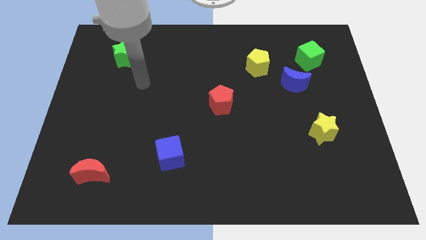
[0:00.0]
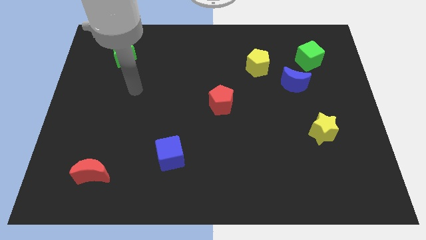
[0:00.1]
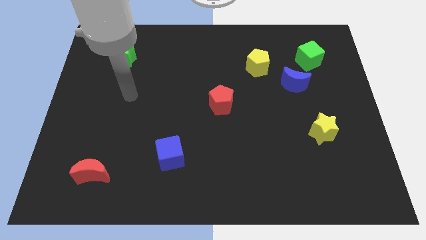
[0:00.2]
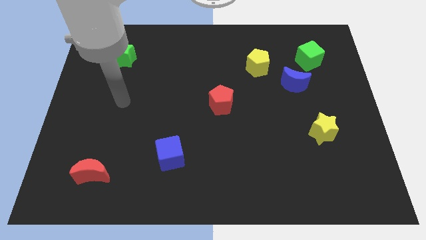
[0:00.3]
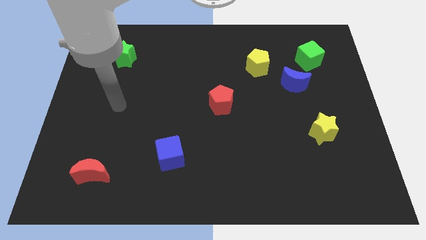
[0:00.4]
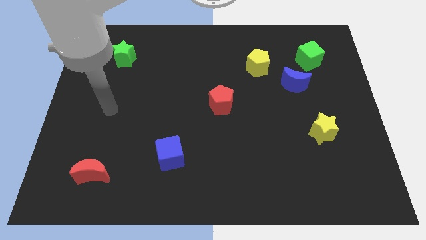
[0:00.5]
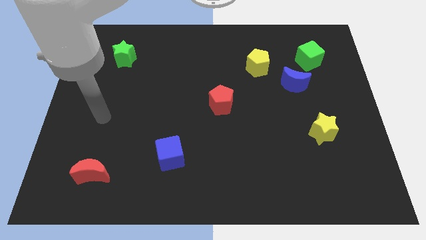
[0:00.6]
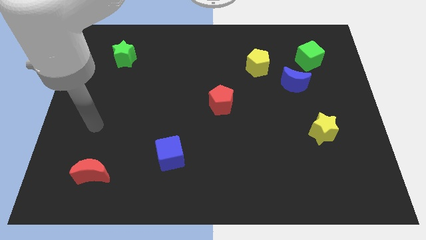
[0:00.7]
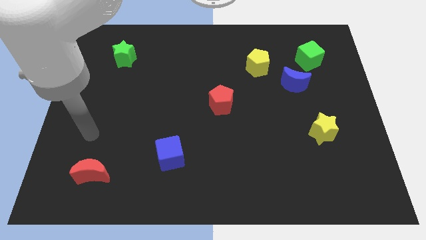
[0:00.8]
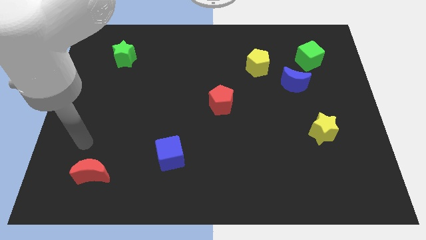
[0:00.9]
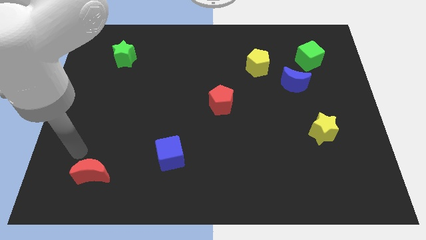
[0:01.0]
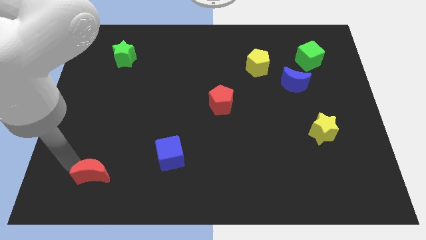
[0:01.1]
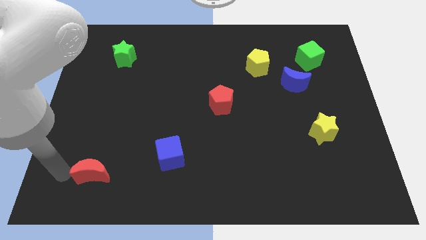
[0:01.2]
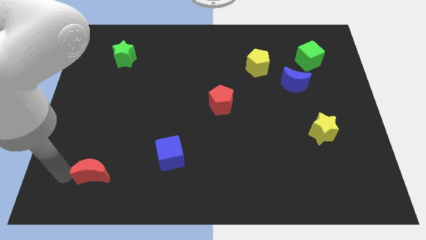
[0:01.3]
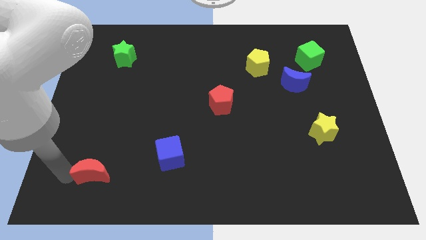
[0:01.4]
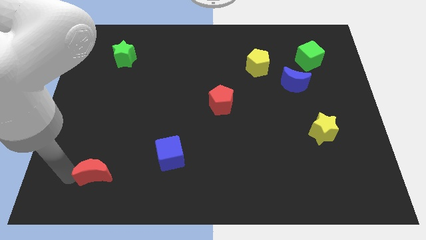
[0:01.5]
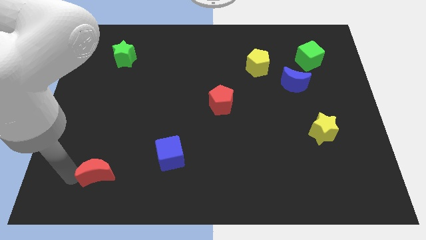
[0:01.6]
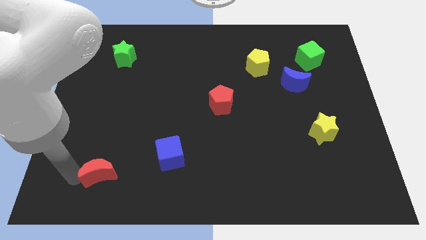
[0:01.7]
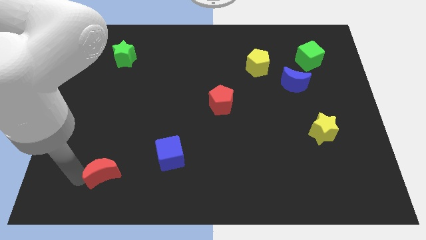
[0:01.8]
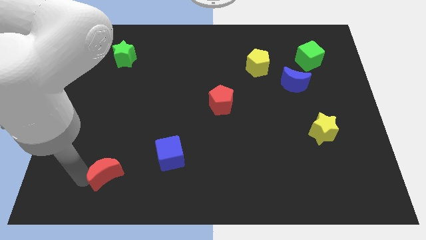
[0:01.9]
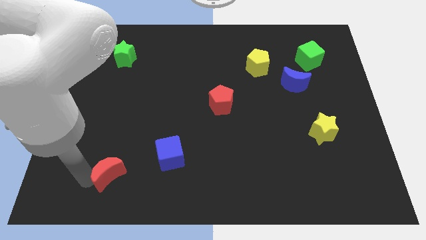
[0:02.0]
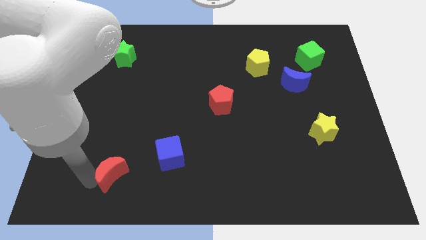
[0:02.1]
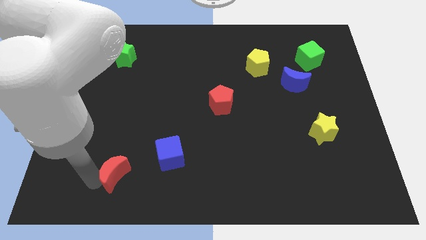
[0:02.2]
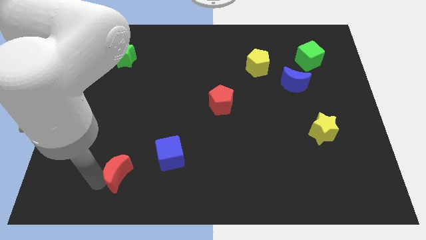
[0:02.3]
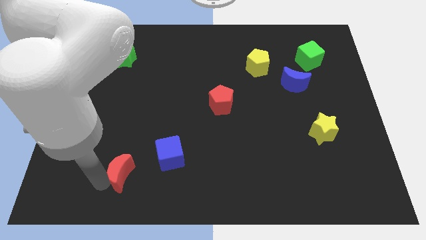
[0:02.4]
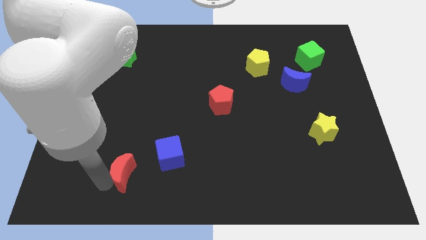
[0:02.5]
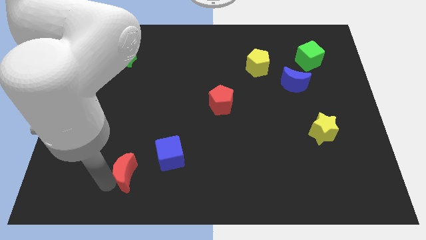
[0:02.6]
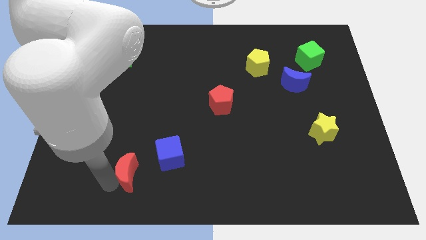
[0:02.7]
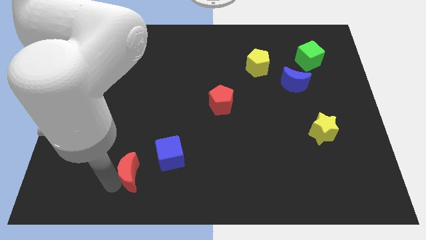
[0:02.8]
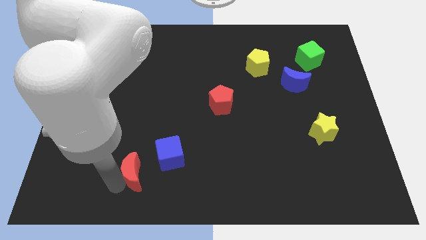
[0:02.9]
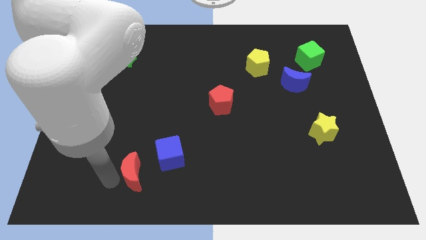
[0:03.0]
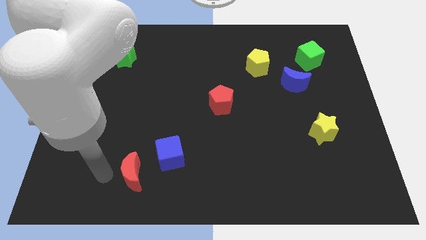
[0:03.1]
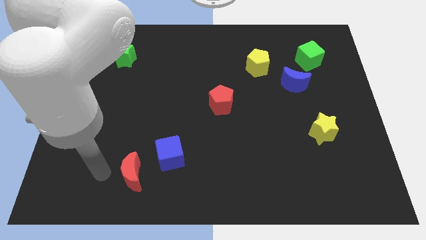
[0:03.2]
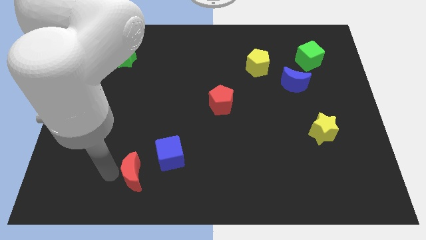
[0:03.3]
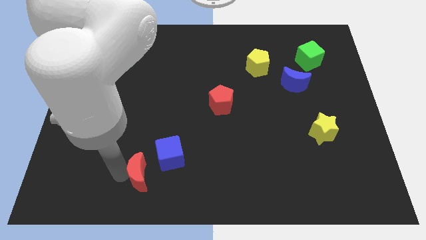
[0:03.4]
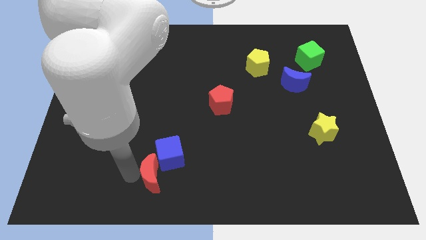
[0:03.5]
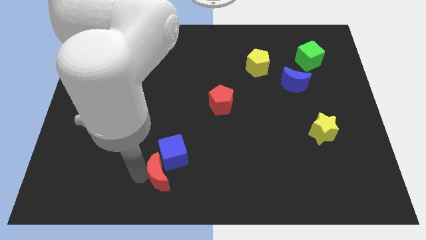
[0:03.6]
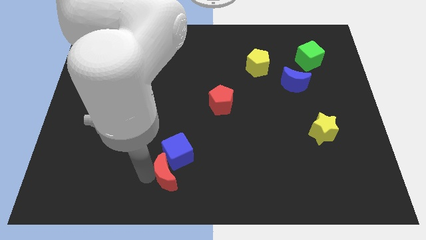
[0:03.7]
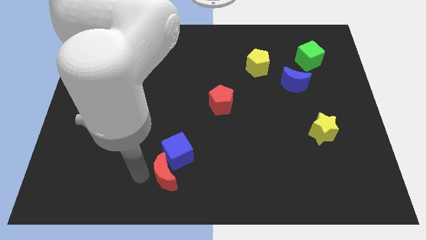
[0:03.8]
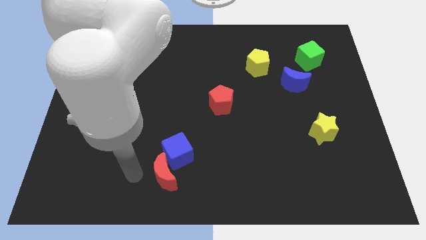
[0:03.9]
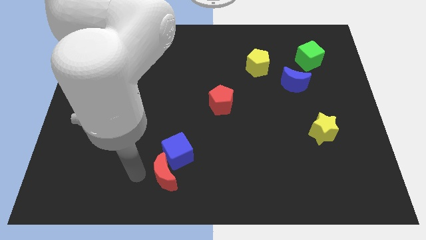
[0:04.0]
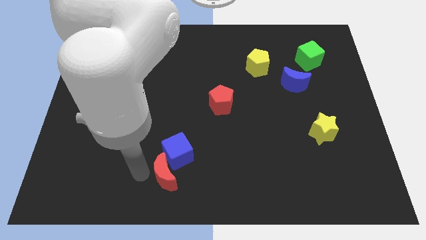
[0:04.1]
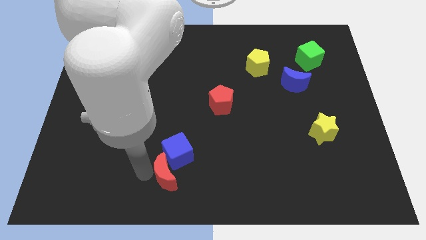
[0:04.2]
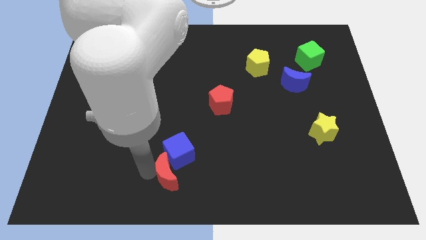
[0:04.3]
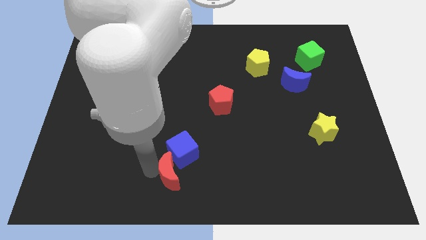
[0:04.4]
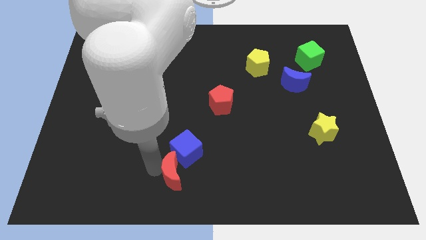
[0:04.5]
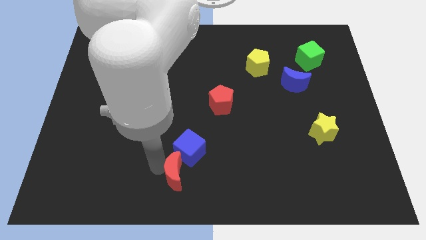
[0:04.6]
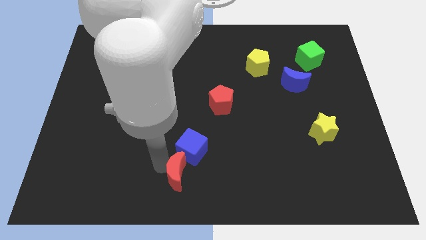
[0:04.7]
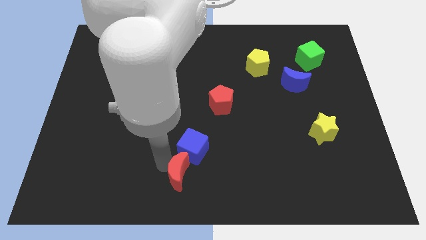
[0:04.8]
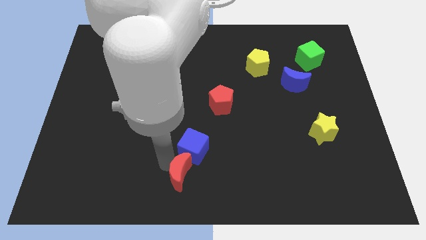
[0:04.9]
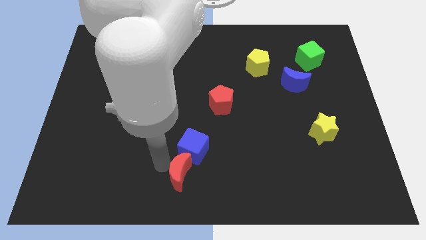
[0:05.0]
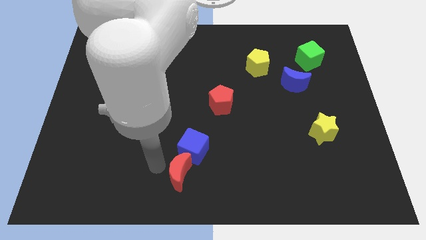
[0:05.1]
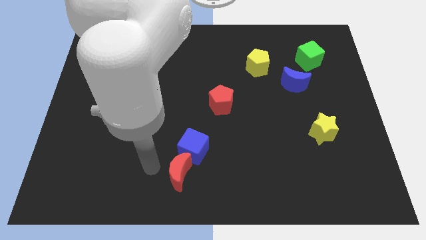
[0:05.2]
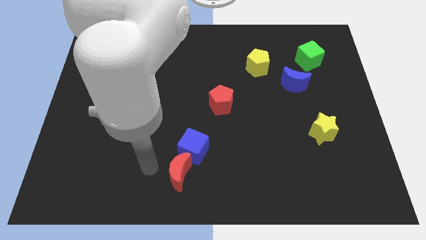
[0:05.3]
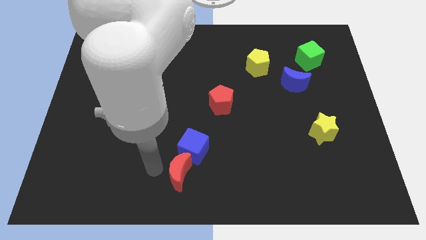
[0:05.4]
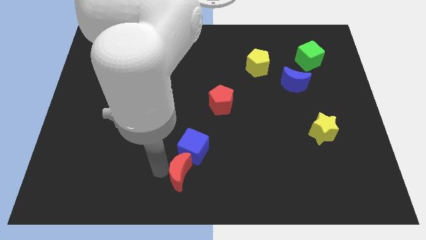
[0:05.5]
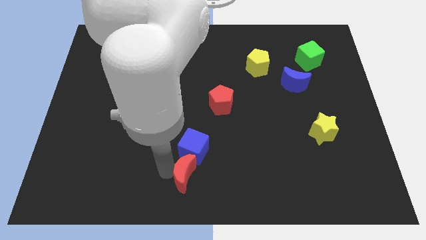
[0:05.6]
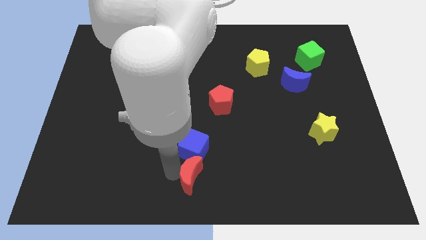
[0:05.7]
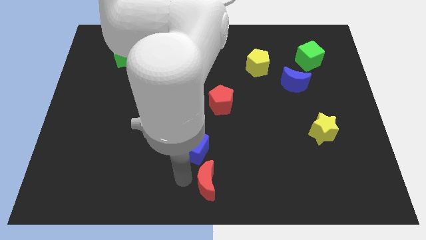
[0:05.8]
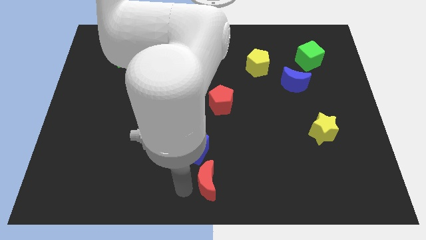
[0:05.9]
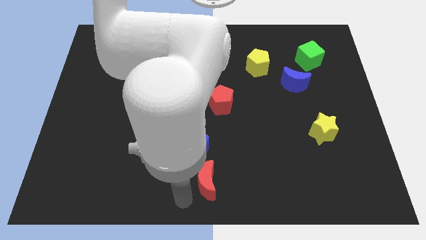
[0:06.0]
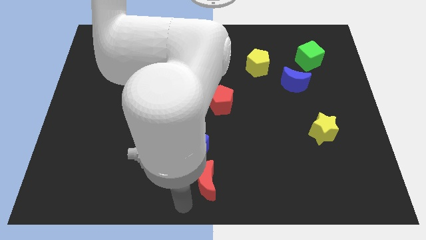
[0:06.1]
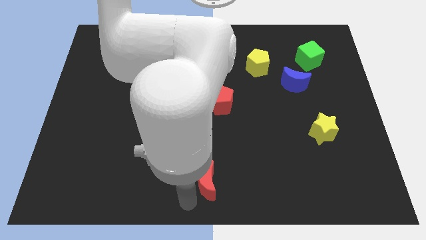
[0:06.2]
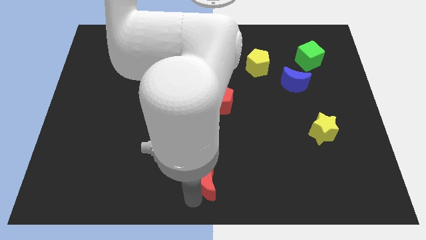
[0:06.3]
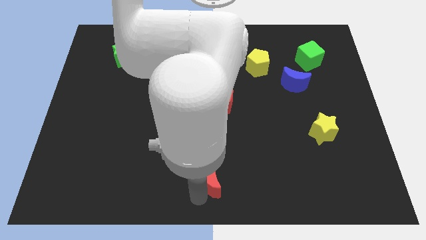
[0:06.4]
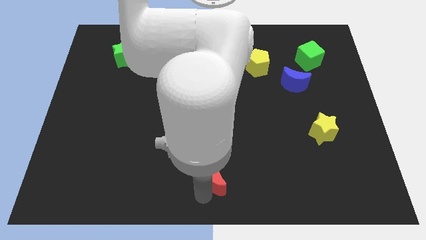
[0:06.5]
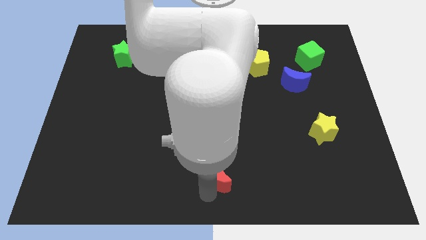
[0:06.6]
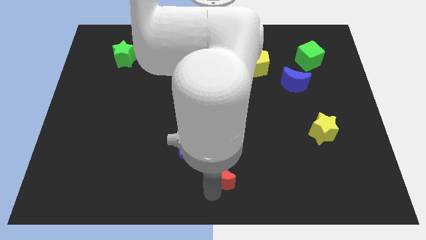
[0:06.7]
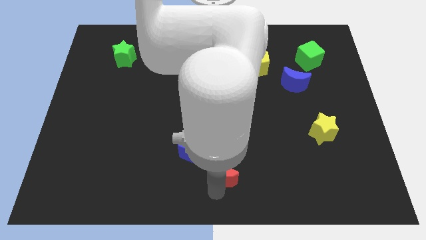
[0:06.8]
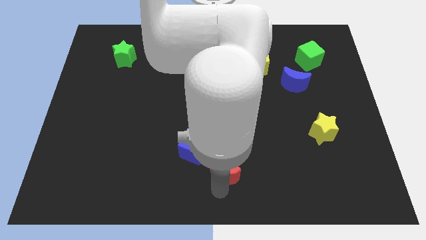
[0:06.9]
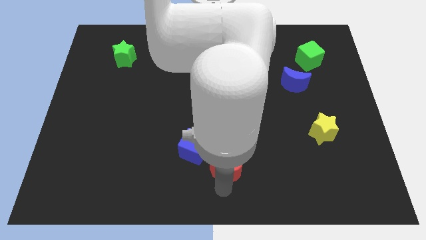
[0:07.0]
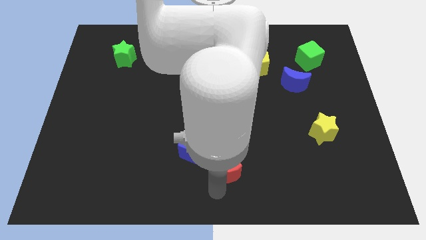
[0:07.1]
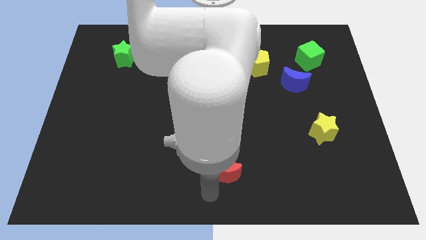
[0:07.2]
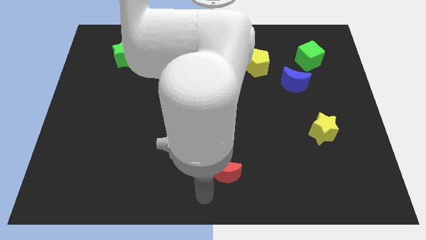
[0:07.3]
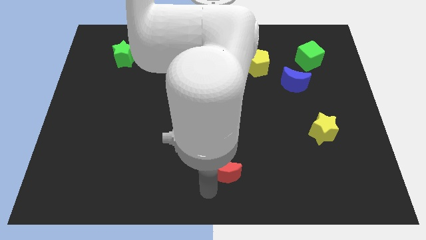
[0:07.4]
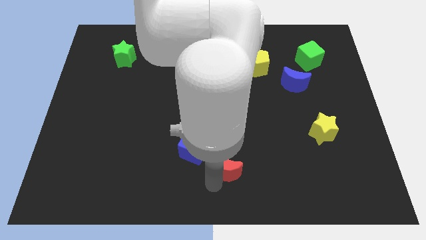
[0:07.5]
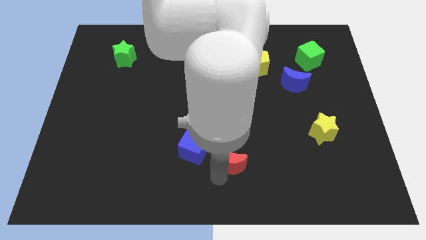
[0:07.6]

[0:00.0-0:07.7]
move the red moon to the right side of the blue cube
